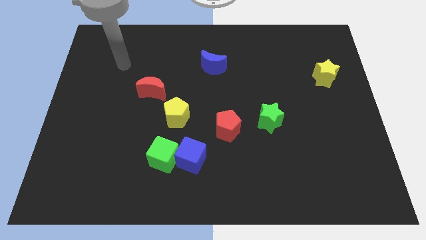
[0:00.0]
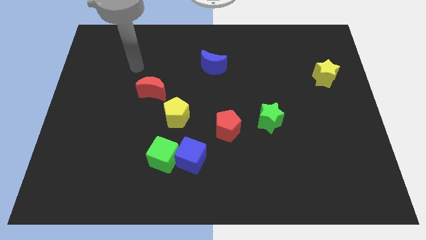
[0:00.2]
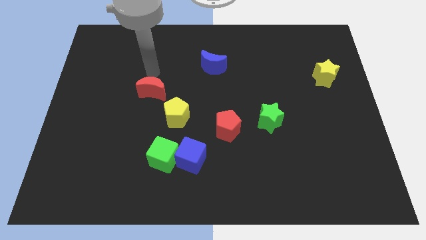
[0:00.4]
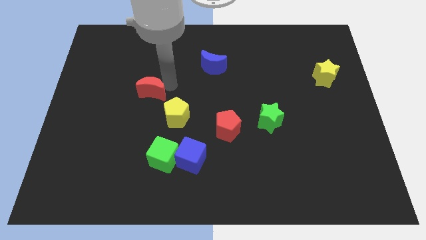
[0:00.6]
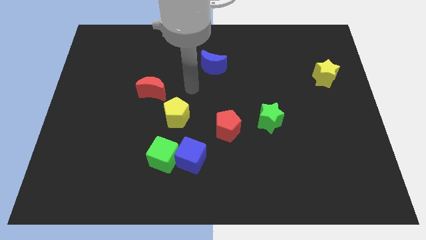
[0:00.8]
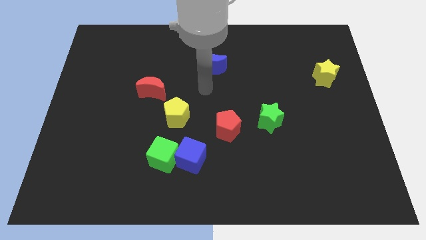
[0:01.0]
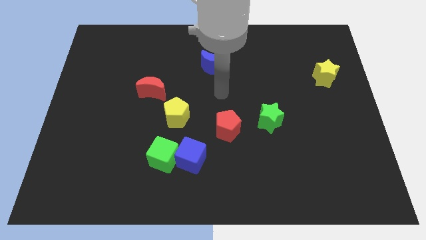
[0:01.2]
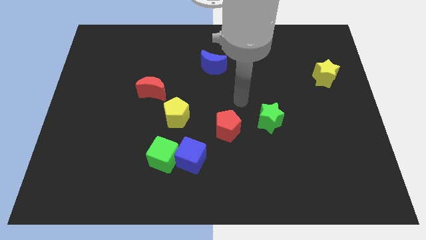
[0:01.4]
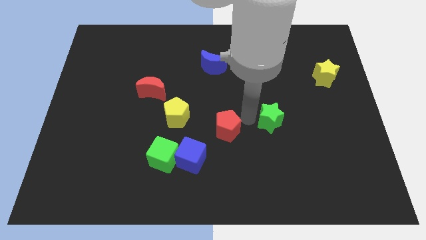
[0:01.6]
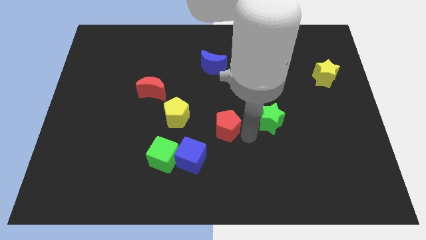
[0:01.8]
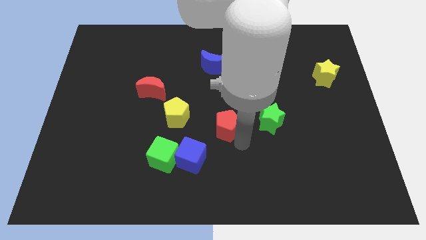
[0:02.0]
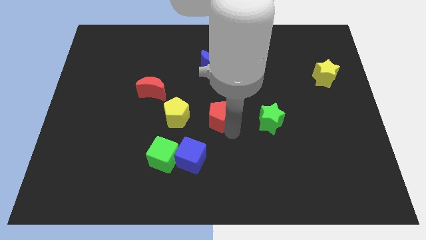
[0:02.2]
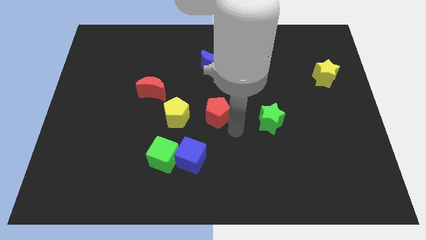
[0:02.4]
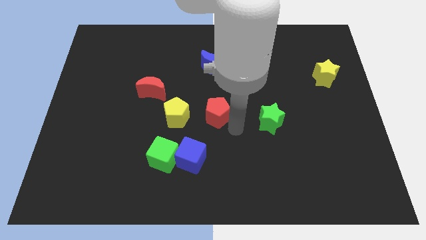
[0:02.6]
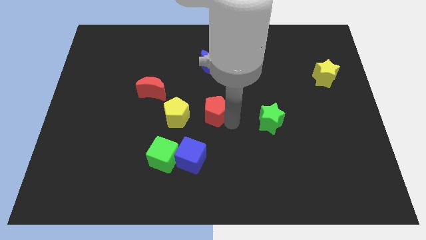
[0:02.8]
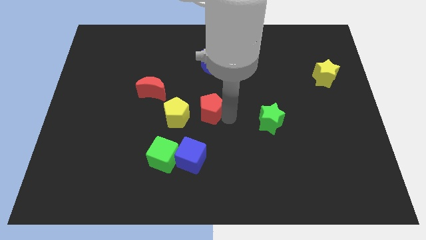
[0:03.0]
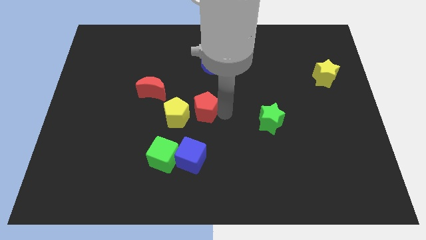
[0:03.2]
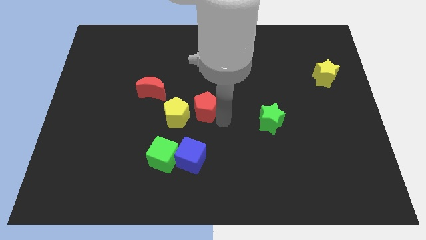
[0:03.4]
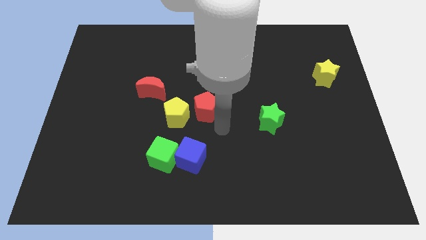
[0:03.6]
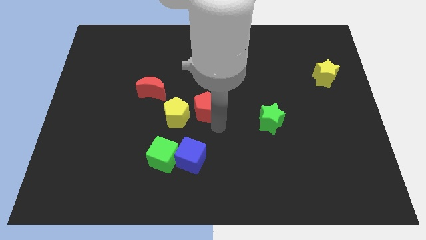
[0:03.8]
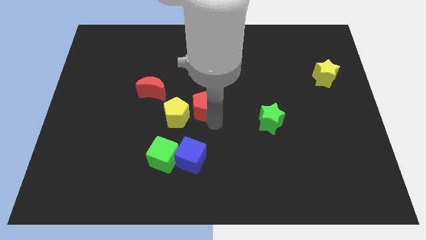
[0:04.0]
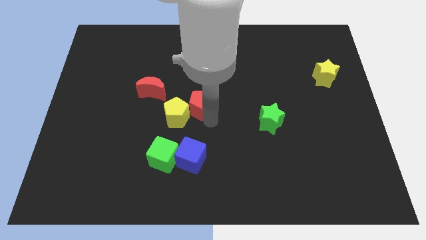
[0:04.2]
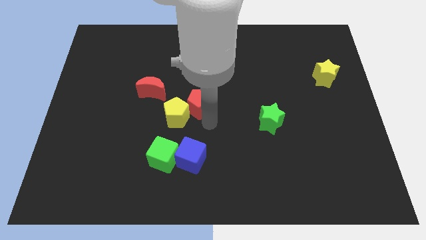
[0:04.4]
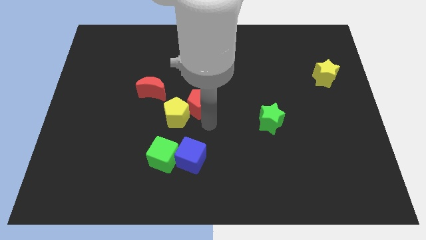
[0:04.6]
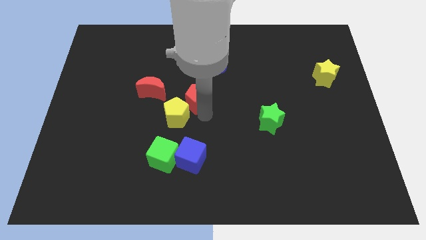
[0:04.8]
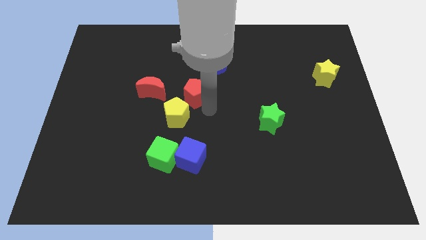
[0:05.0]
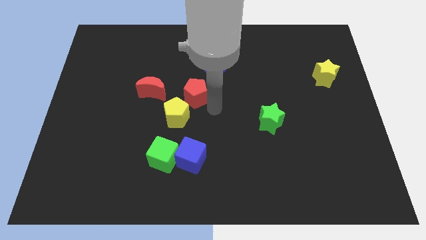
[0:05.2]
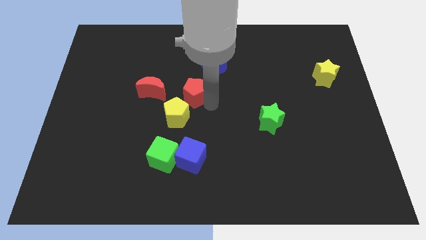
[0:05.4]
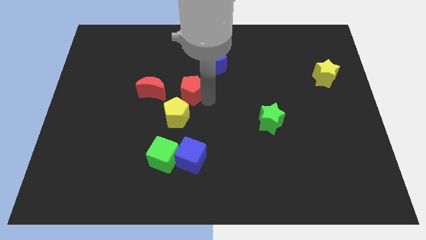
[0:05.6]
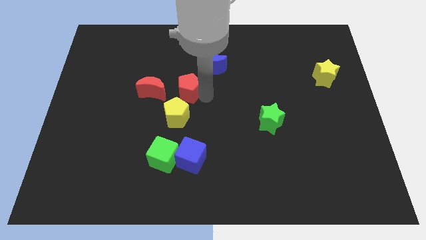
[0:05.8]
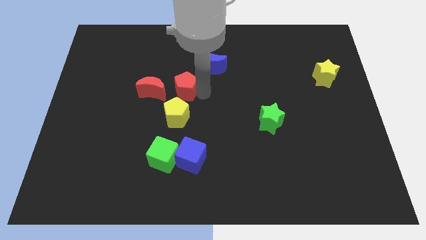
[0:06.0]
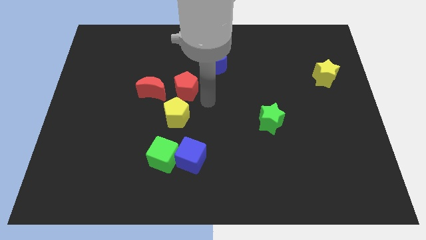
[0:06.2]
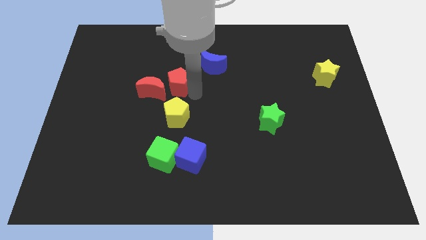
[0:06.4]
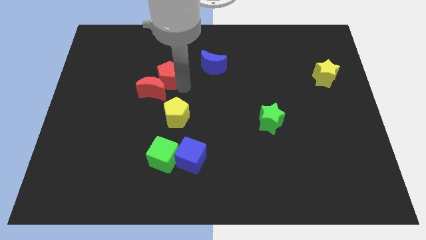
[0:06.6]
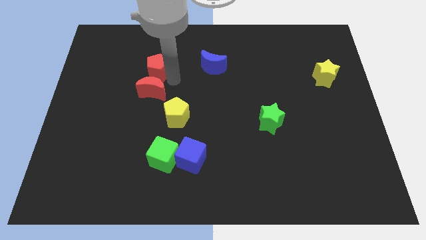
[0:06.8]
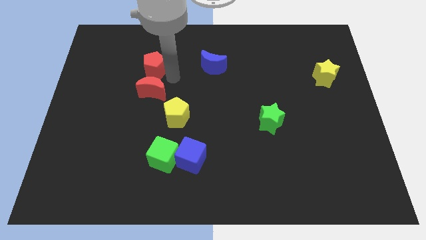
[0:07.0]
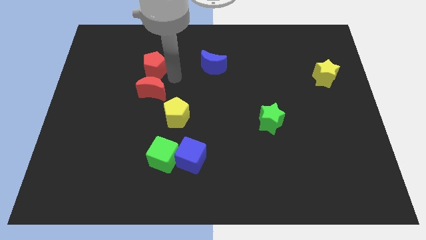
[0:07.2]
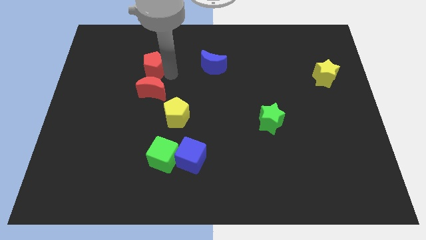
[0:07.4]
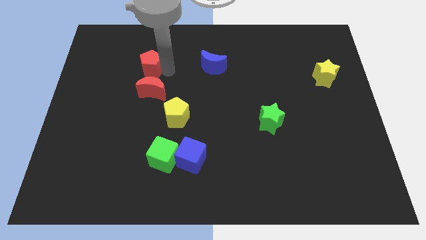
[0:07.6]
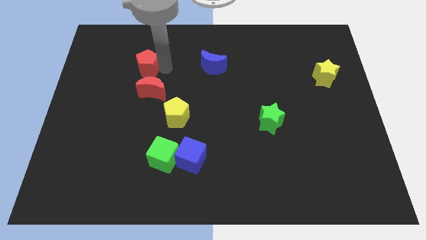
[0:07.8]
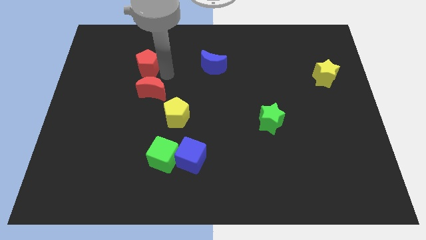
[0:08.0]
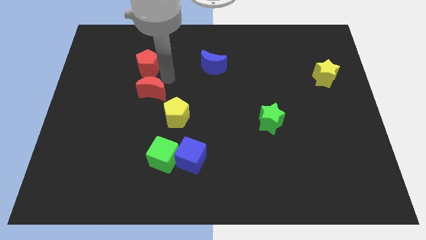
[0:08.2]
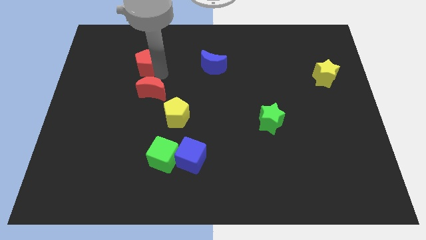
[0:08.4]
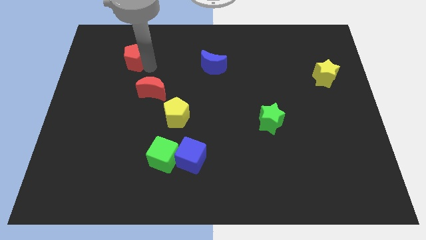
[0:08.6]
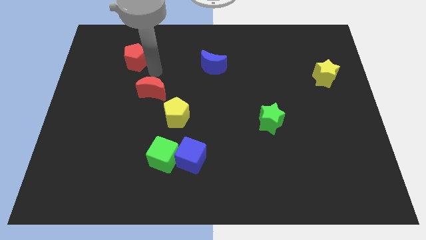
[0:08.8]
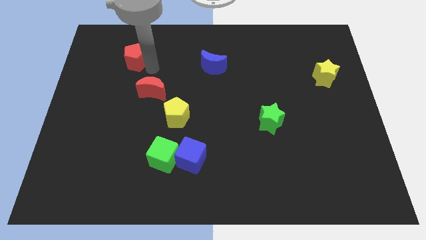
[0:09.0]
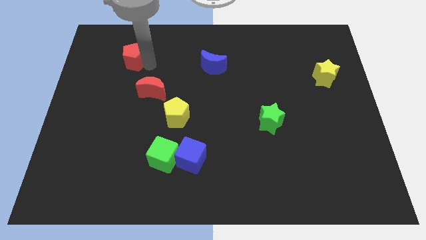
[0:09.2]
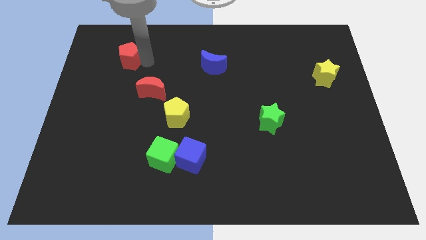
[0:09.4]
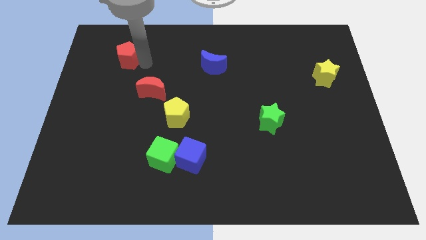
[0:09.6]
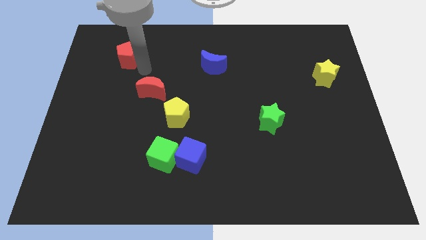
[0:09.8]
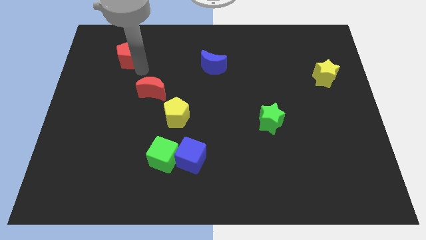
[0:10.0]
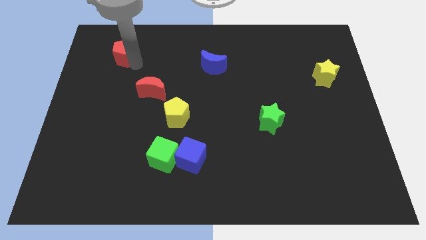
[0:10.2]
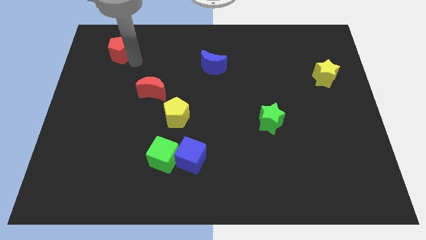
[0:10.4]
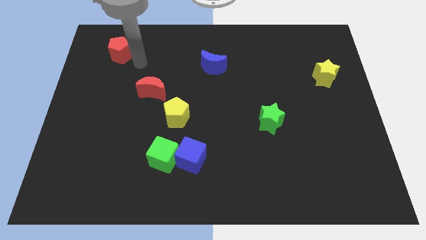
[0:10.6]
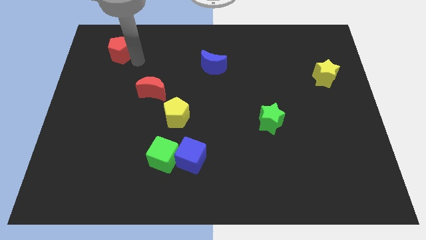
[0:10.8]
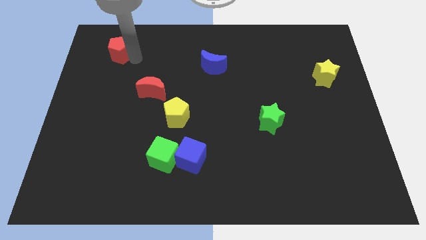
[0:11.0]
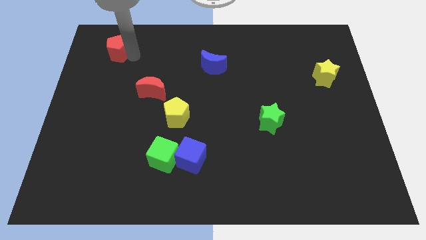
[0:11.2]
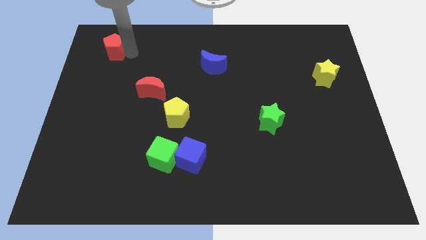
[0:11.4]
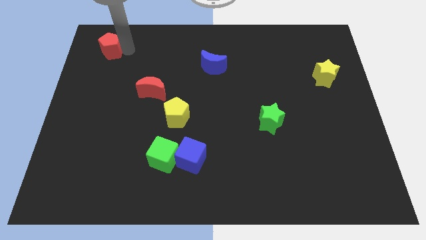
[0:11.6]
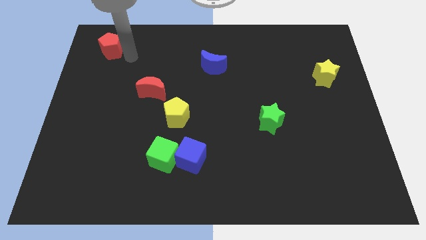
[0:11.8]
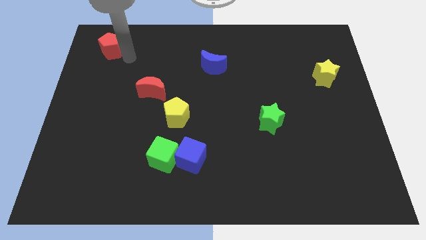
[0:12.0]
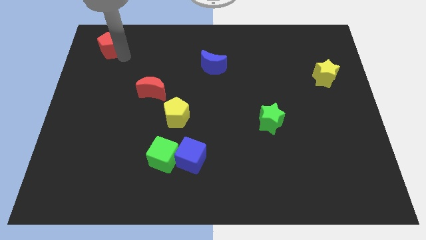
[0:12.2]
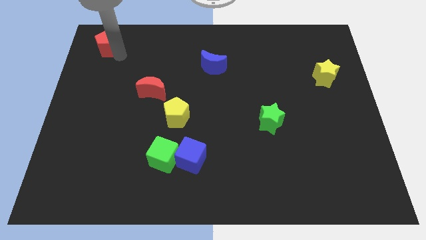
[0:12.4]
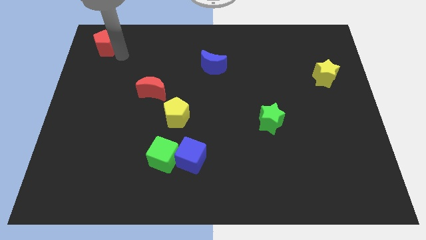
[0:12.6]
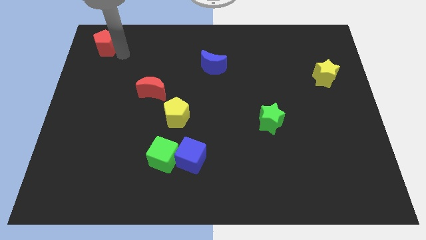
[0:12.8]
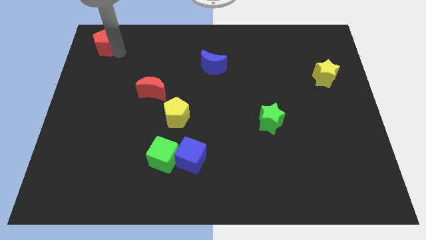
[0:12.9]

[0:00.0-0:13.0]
slide the red pentagon to the top left

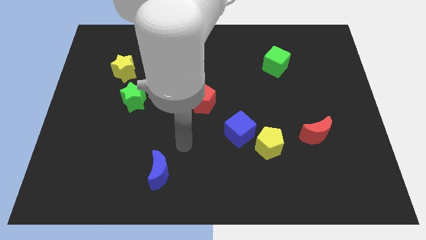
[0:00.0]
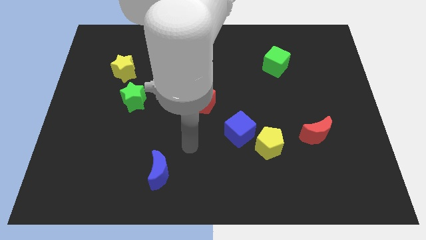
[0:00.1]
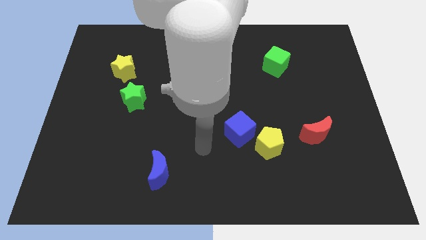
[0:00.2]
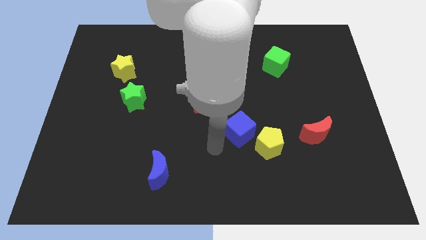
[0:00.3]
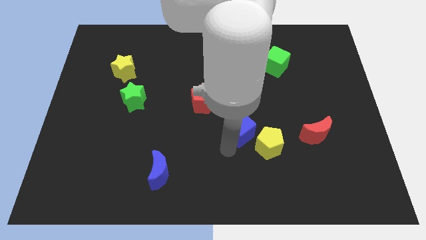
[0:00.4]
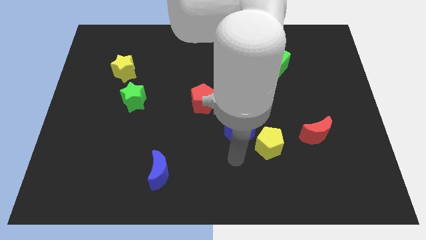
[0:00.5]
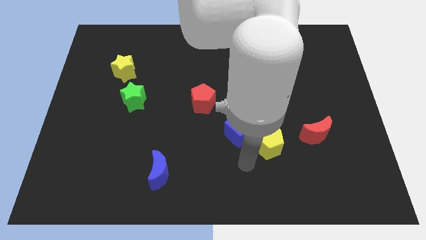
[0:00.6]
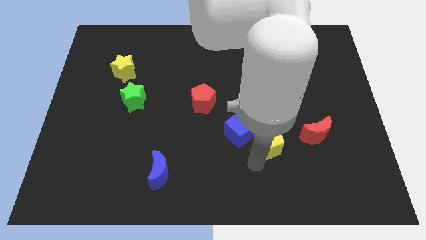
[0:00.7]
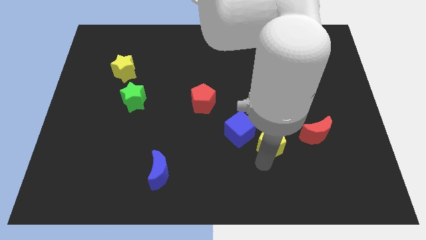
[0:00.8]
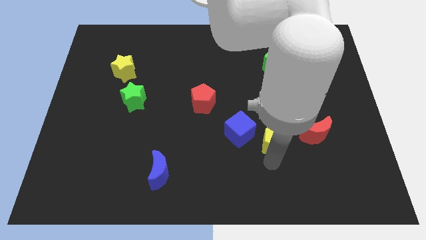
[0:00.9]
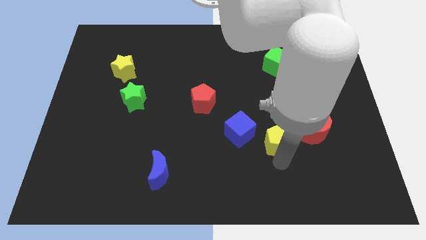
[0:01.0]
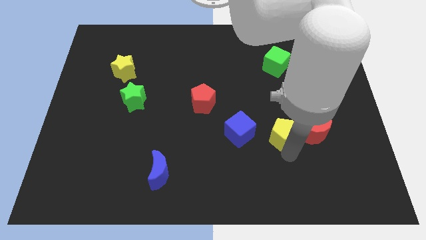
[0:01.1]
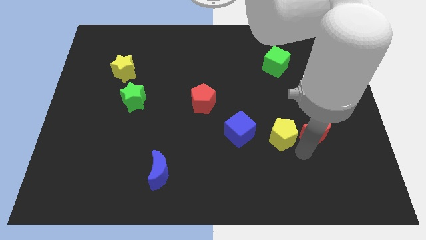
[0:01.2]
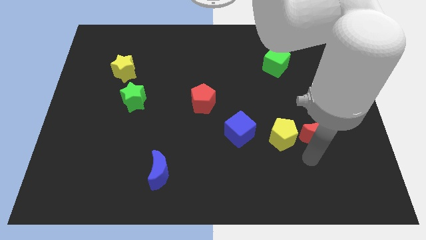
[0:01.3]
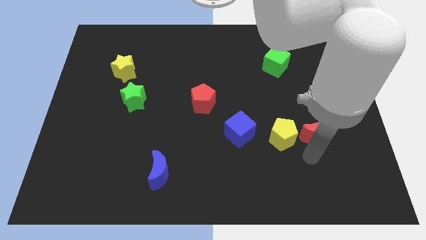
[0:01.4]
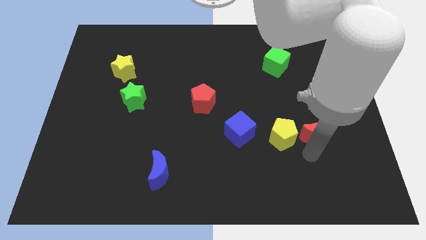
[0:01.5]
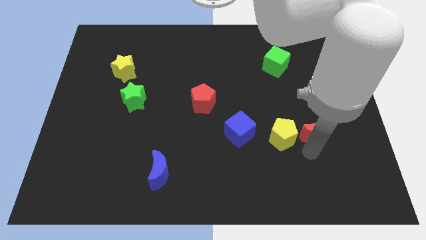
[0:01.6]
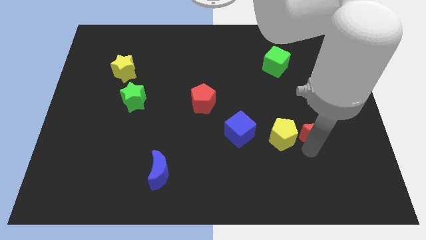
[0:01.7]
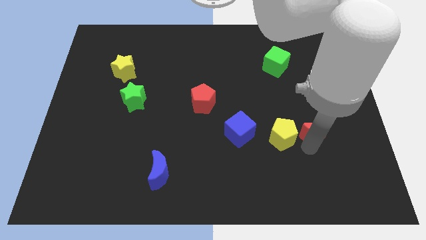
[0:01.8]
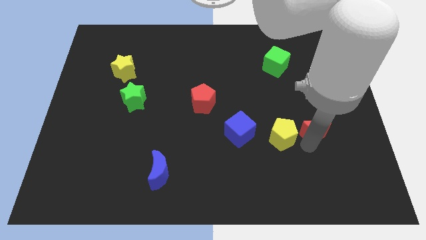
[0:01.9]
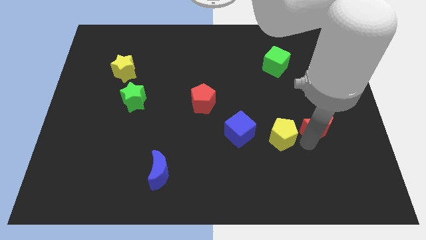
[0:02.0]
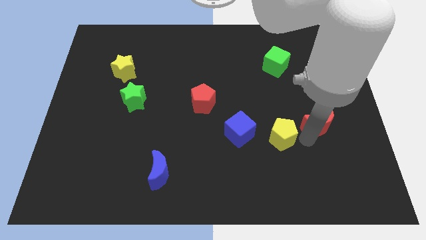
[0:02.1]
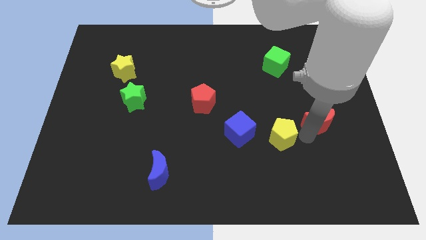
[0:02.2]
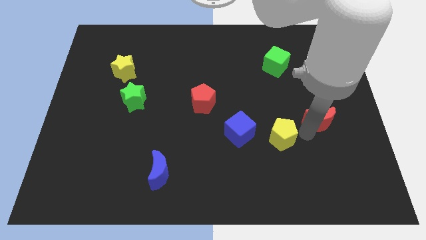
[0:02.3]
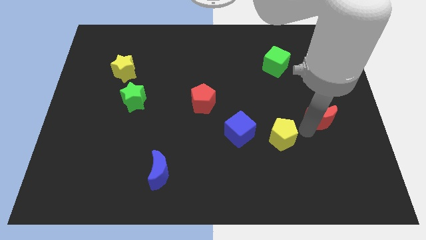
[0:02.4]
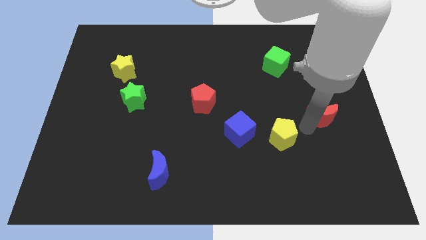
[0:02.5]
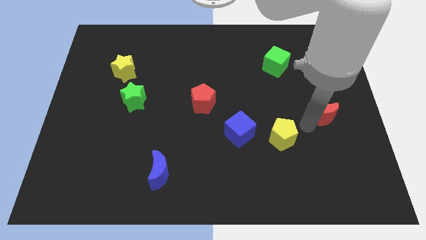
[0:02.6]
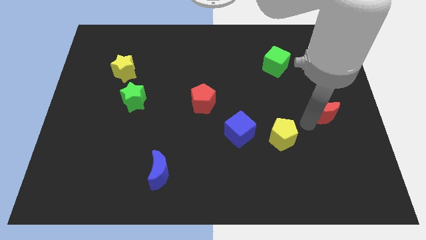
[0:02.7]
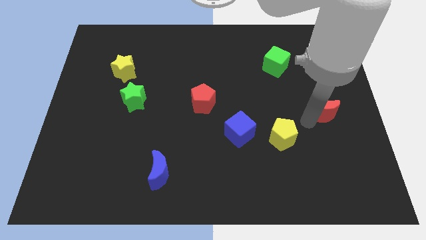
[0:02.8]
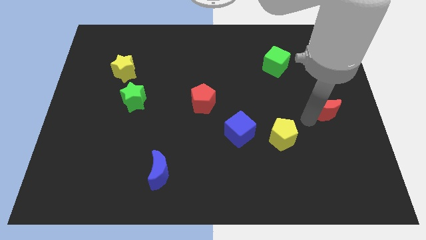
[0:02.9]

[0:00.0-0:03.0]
put the red moon to the right side of the board
